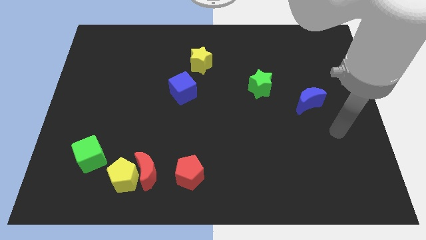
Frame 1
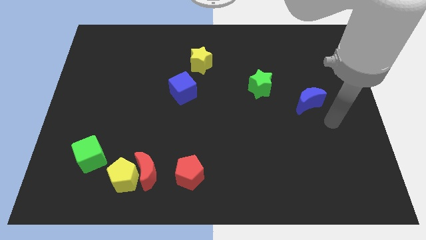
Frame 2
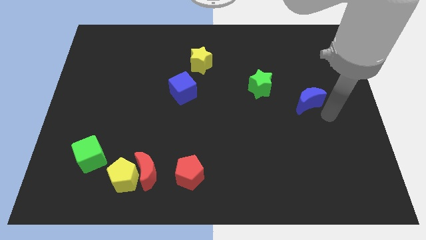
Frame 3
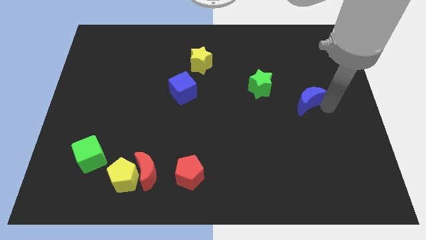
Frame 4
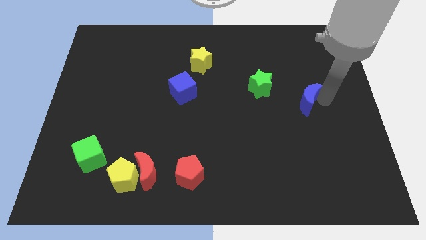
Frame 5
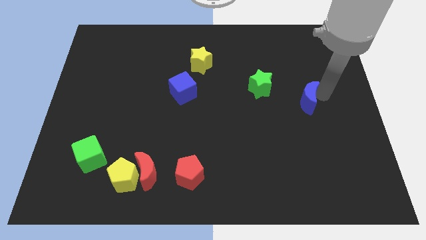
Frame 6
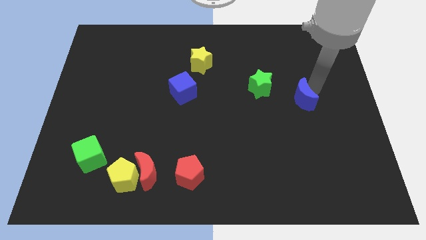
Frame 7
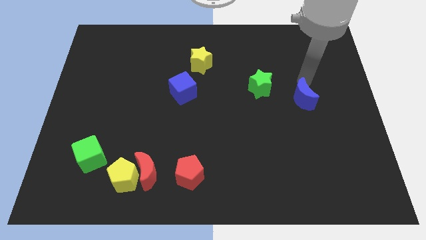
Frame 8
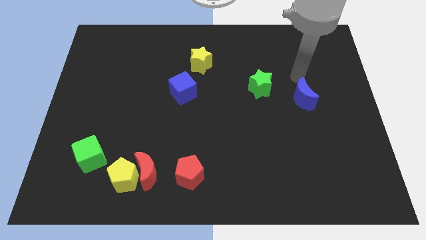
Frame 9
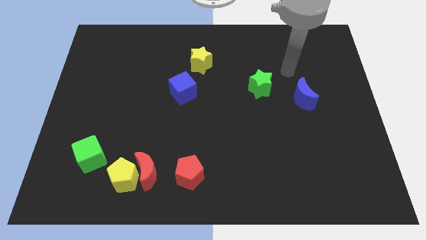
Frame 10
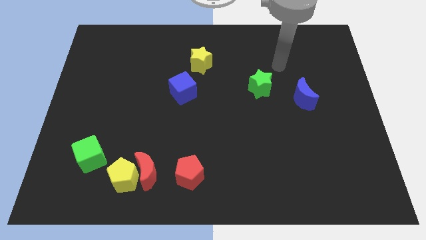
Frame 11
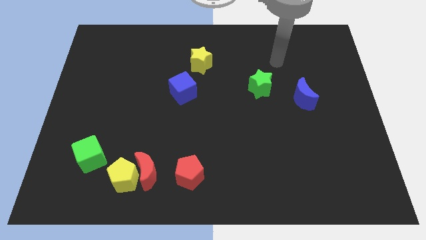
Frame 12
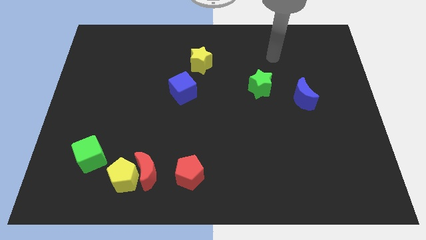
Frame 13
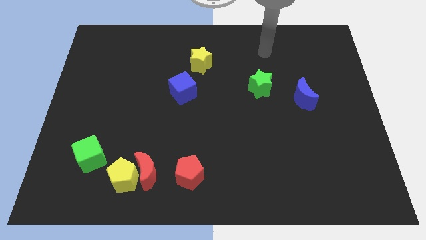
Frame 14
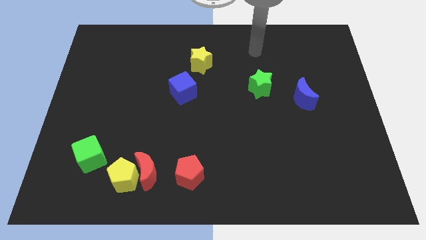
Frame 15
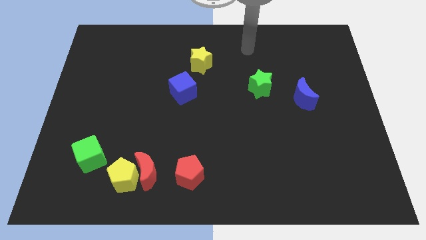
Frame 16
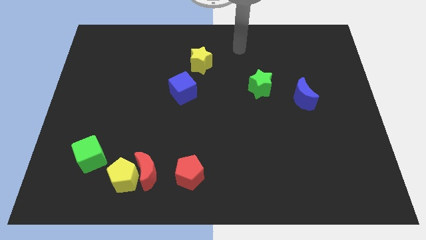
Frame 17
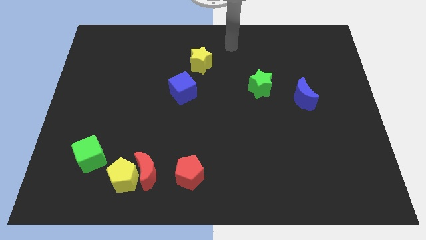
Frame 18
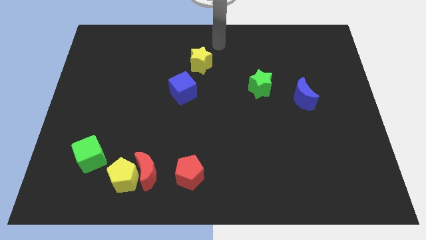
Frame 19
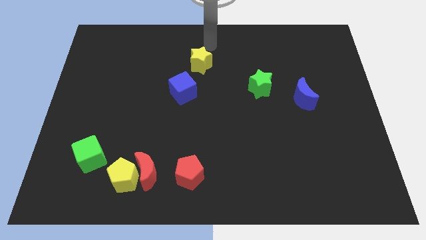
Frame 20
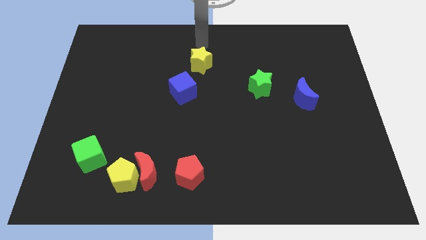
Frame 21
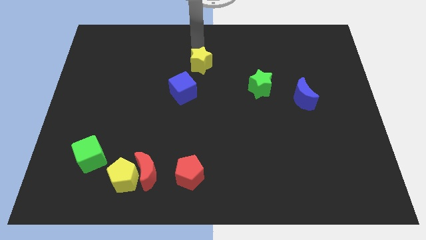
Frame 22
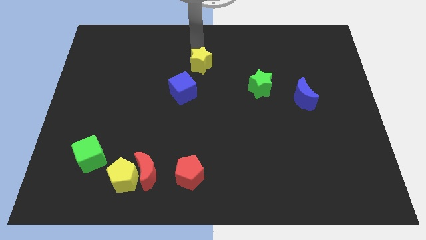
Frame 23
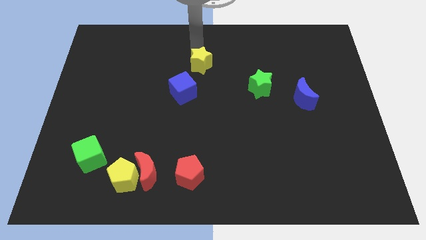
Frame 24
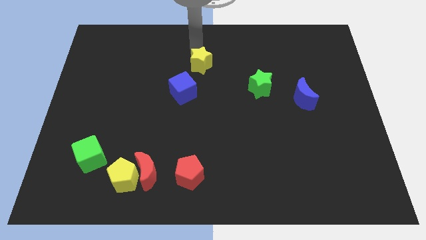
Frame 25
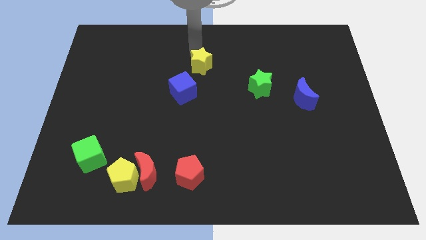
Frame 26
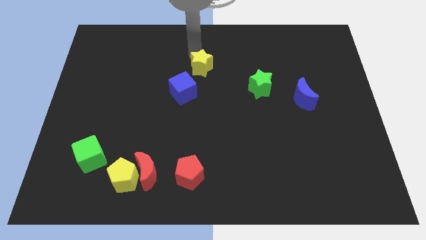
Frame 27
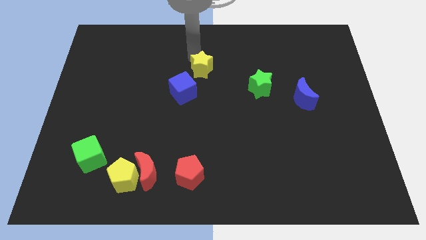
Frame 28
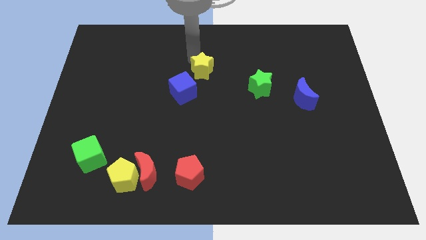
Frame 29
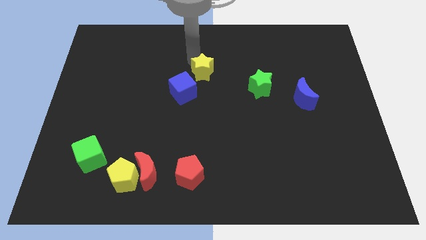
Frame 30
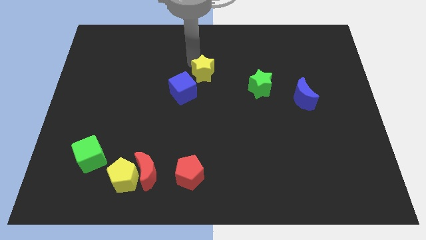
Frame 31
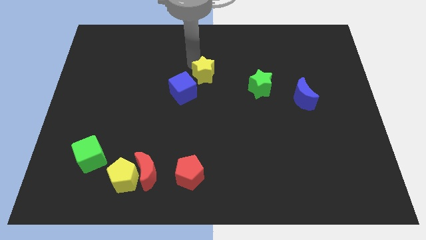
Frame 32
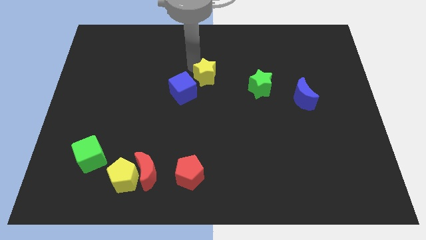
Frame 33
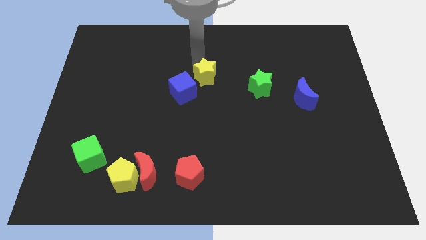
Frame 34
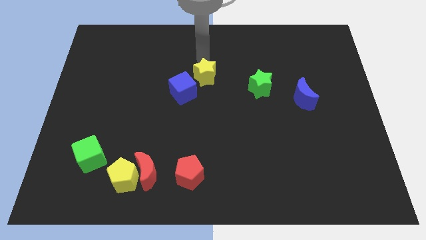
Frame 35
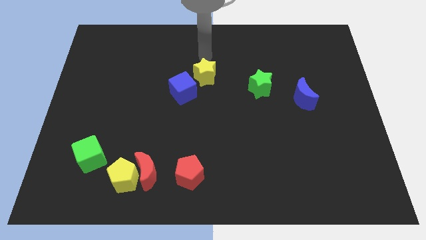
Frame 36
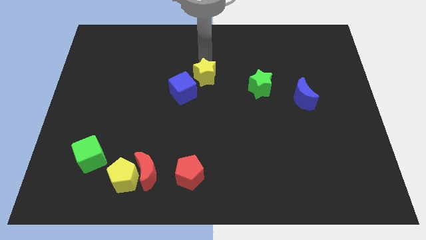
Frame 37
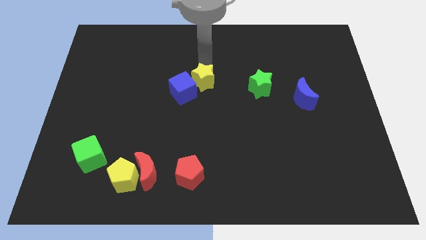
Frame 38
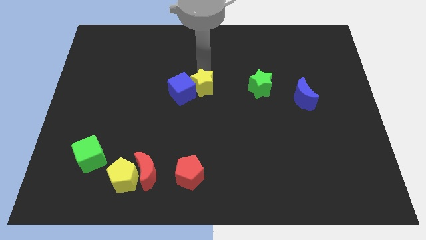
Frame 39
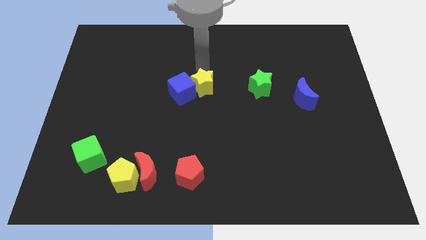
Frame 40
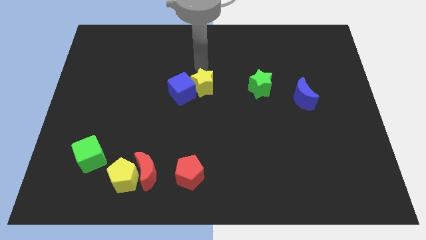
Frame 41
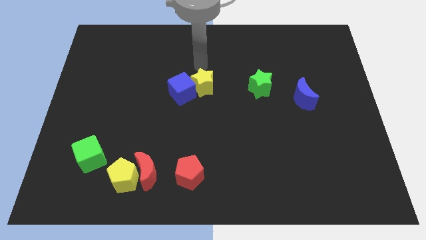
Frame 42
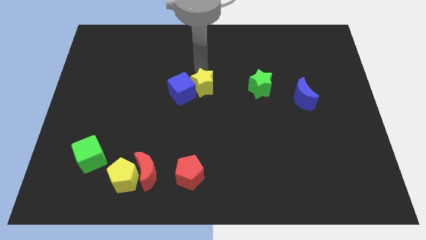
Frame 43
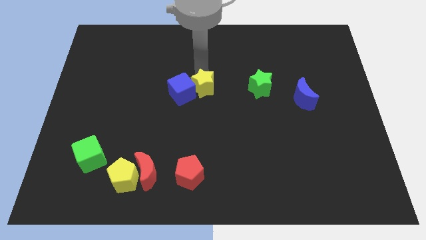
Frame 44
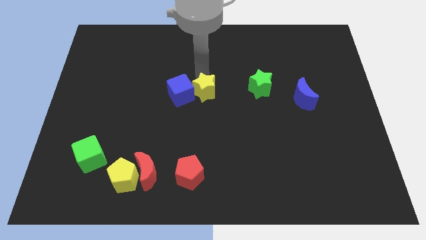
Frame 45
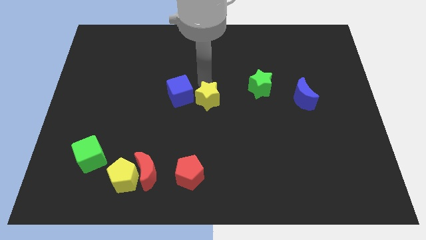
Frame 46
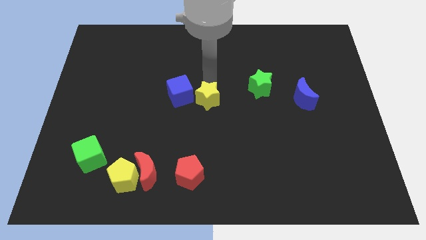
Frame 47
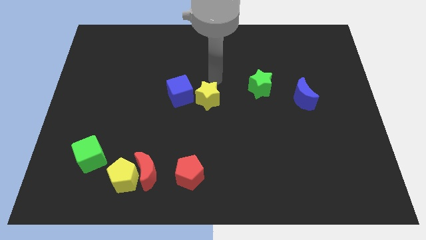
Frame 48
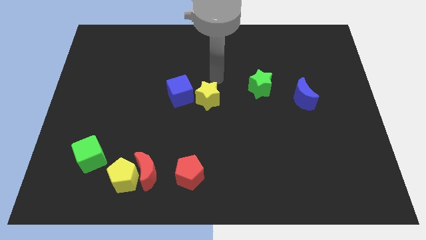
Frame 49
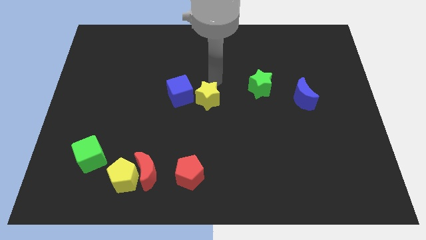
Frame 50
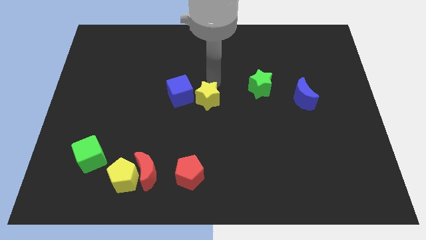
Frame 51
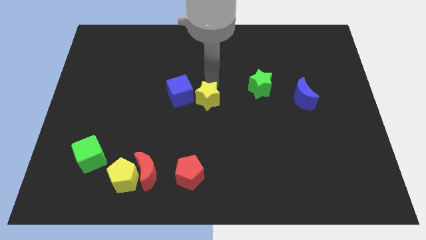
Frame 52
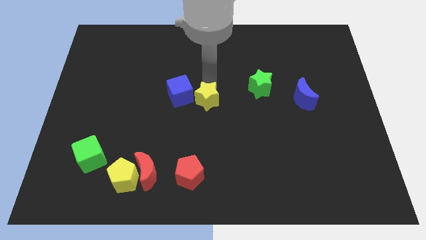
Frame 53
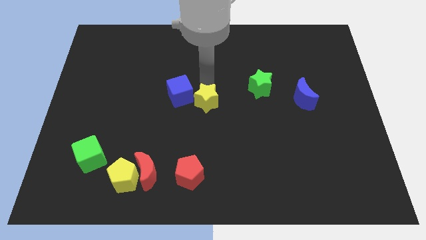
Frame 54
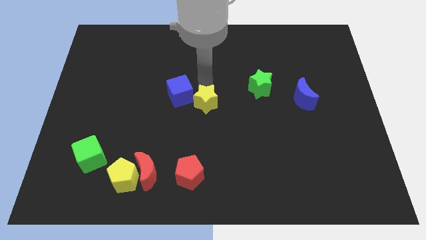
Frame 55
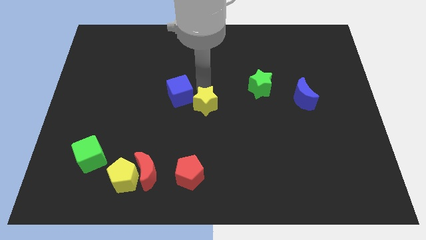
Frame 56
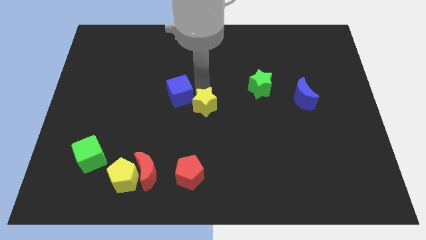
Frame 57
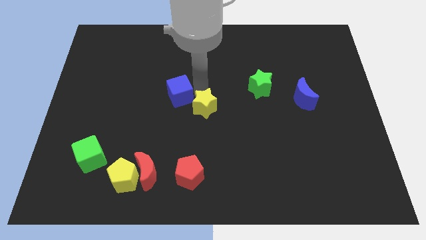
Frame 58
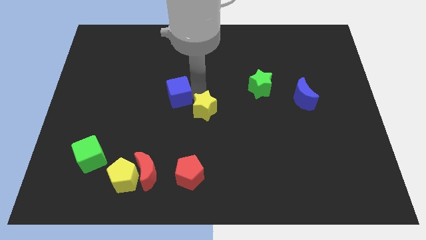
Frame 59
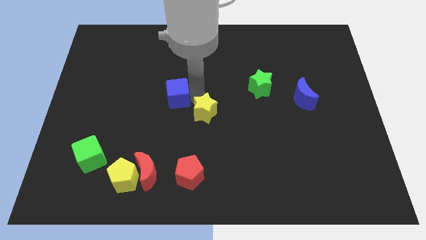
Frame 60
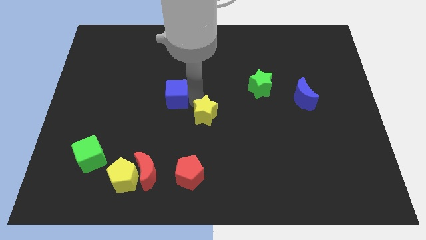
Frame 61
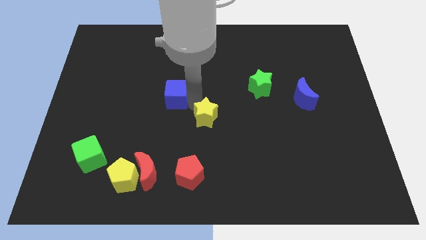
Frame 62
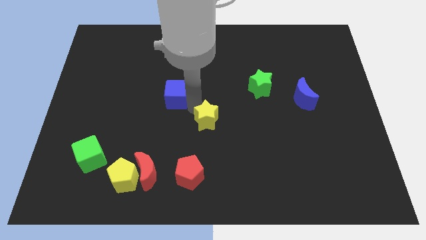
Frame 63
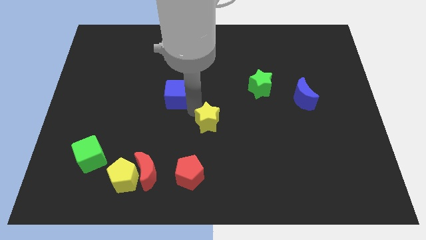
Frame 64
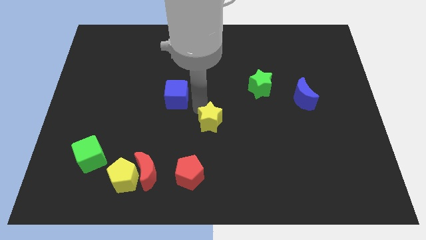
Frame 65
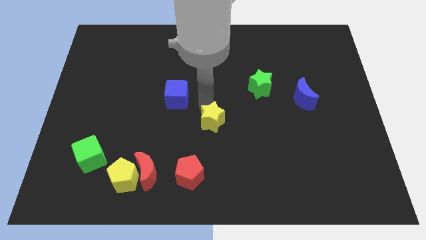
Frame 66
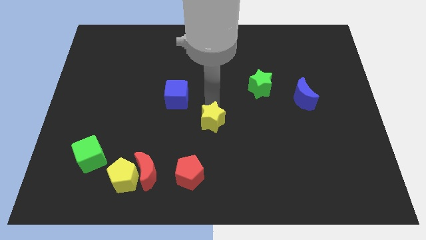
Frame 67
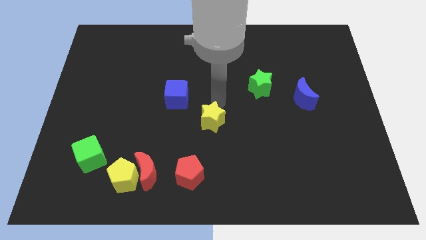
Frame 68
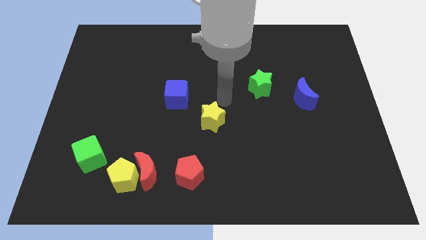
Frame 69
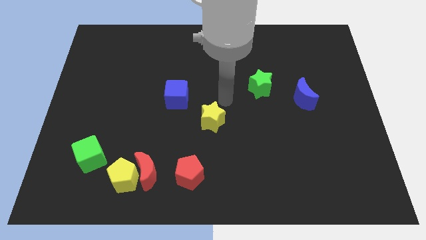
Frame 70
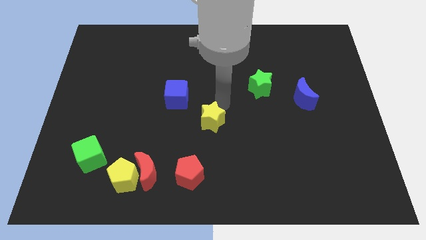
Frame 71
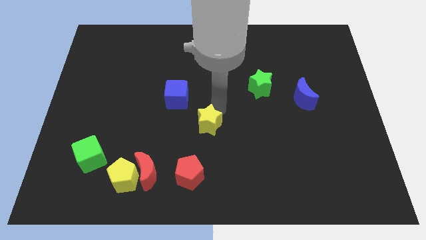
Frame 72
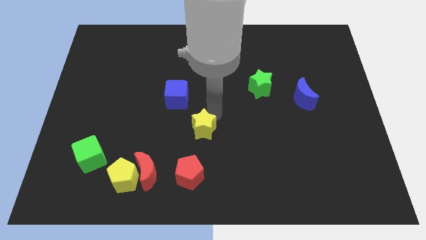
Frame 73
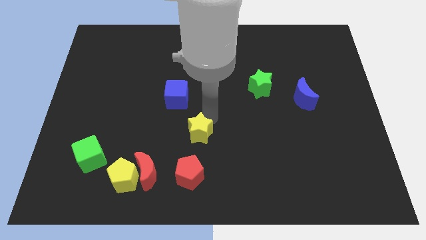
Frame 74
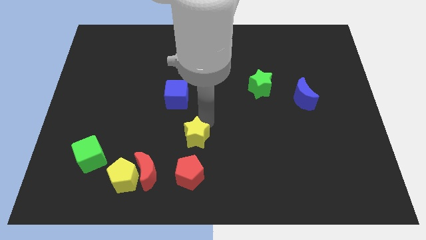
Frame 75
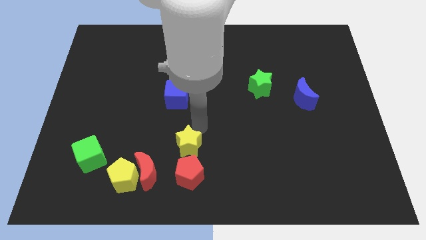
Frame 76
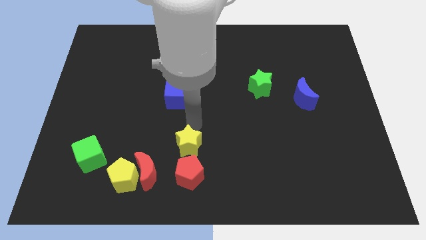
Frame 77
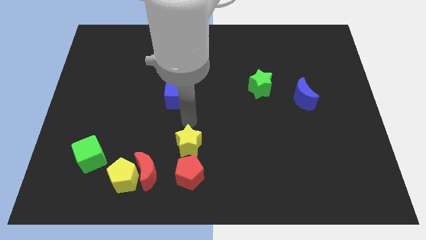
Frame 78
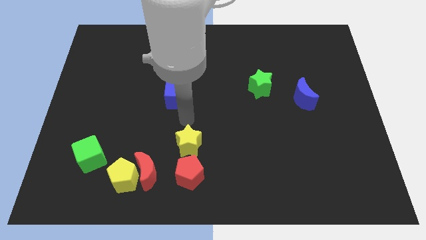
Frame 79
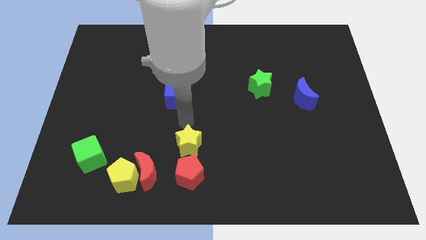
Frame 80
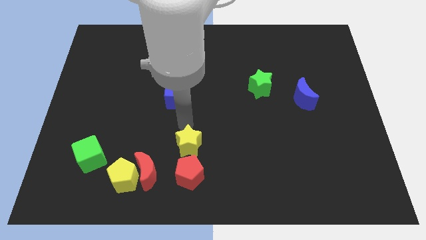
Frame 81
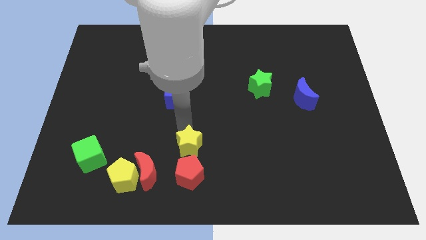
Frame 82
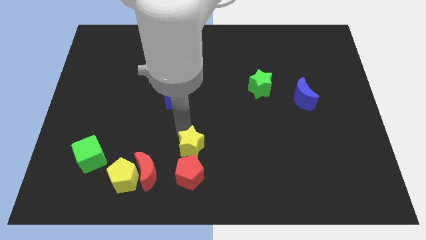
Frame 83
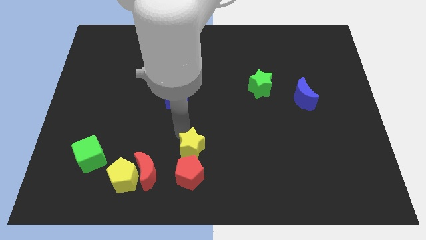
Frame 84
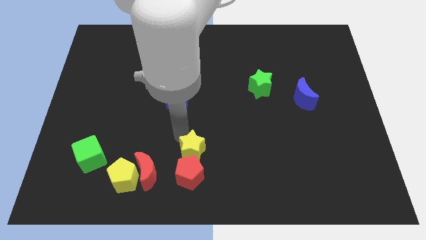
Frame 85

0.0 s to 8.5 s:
push the yellow star towards the red pentagon
